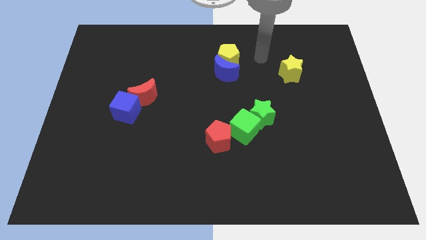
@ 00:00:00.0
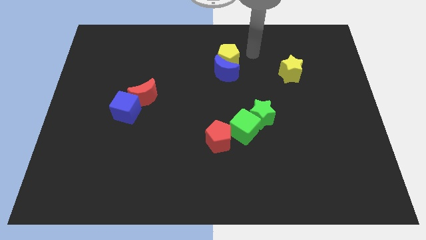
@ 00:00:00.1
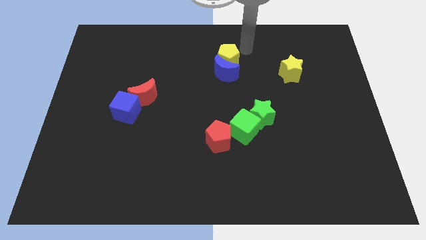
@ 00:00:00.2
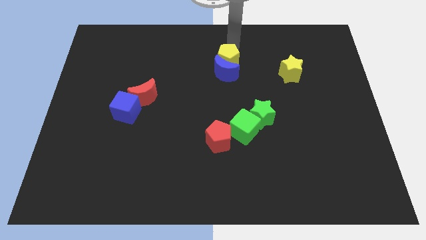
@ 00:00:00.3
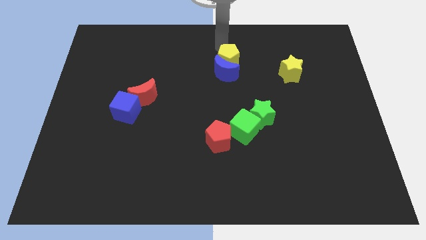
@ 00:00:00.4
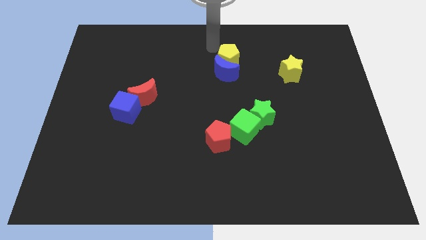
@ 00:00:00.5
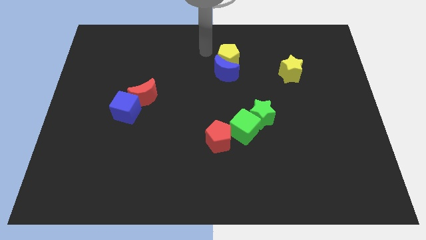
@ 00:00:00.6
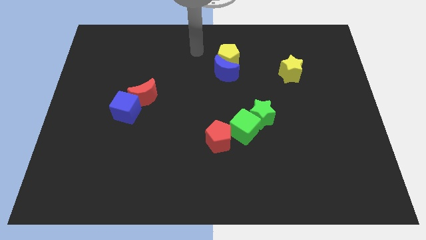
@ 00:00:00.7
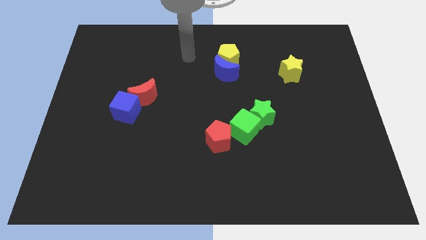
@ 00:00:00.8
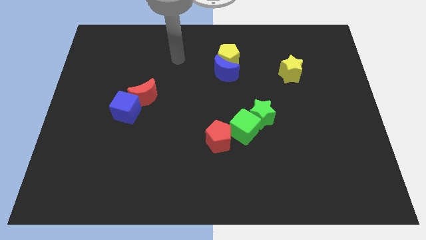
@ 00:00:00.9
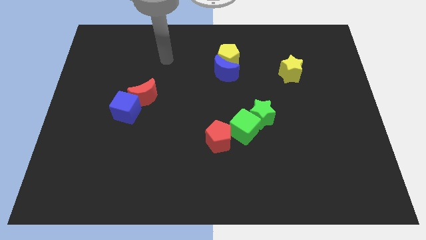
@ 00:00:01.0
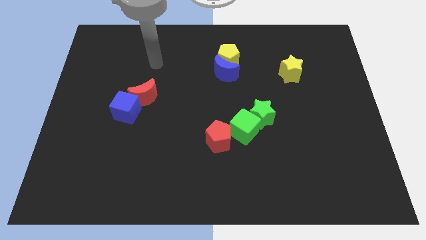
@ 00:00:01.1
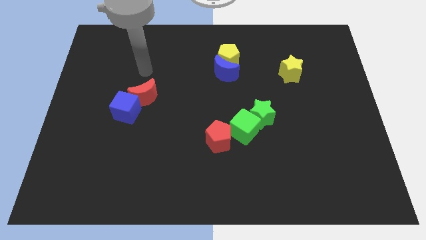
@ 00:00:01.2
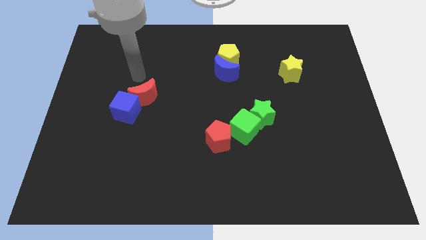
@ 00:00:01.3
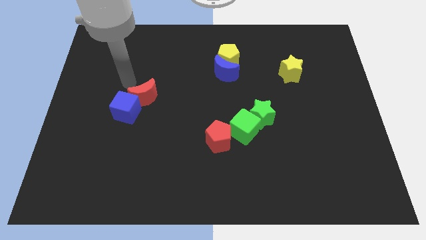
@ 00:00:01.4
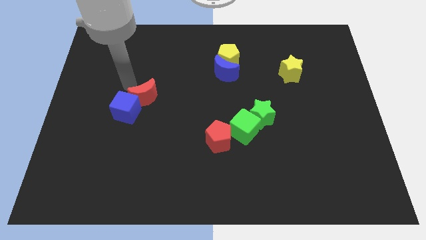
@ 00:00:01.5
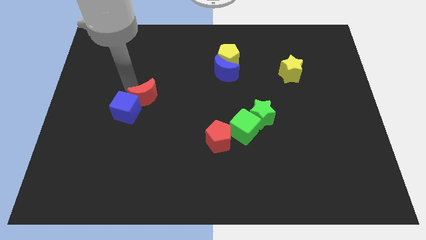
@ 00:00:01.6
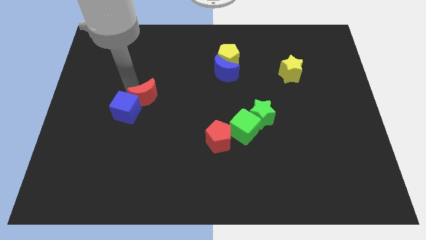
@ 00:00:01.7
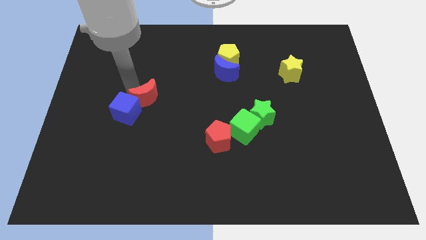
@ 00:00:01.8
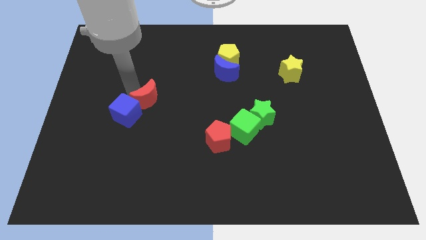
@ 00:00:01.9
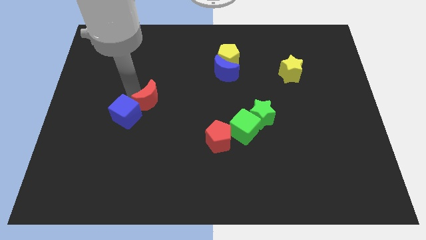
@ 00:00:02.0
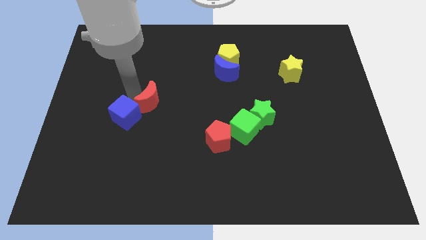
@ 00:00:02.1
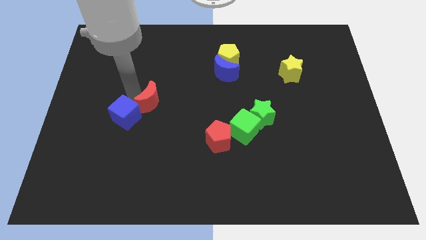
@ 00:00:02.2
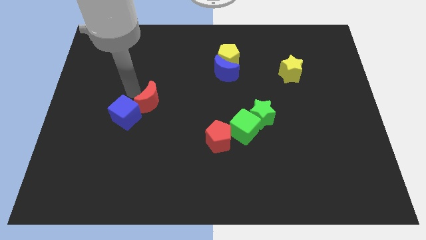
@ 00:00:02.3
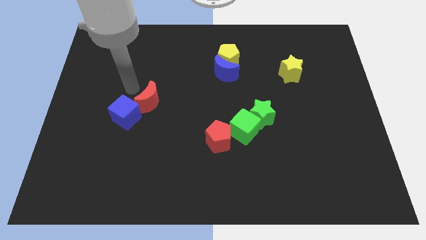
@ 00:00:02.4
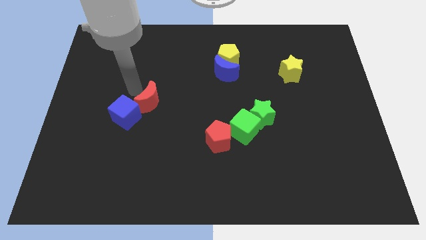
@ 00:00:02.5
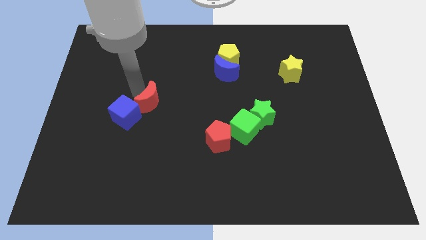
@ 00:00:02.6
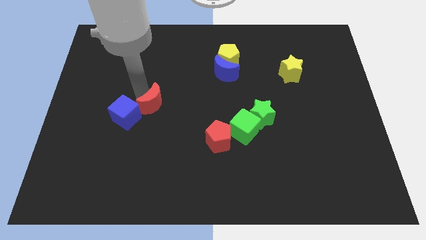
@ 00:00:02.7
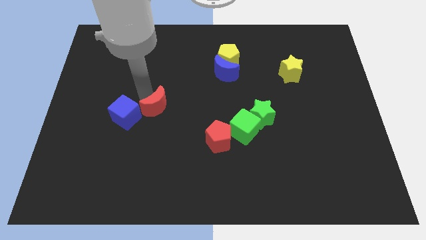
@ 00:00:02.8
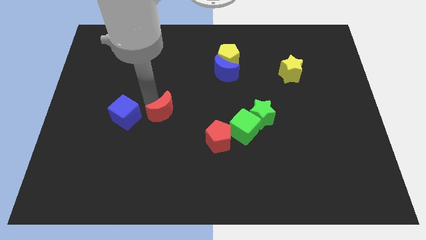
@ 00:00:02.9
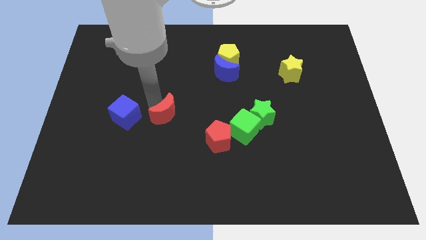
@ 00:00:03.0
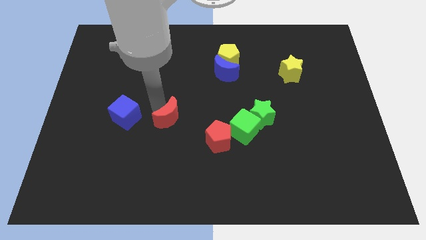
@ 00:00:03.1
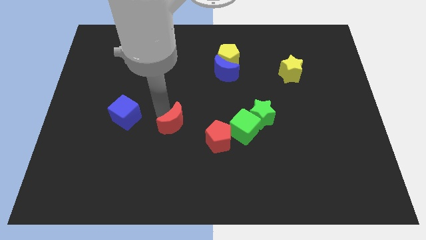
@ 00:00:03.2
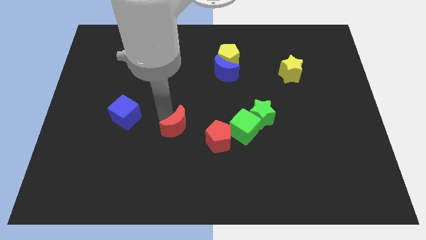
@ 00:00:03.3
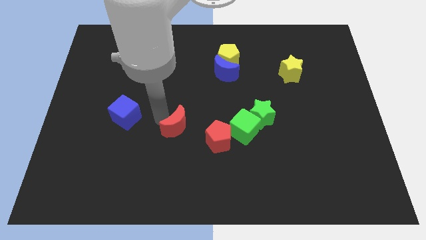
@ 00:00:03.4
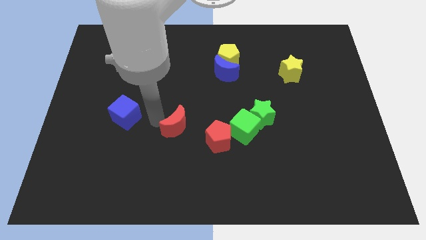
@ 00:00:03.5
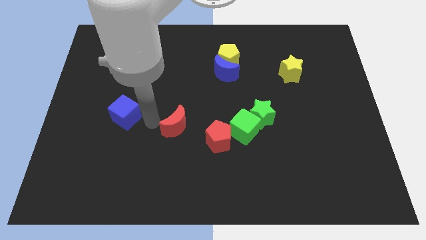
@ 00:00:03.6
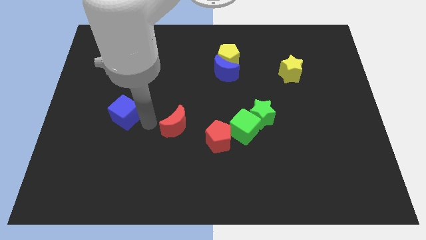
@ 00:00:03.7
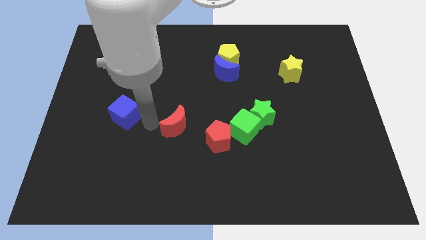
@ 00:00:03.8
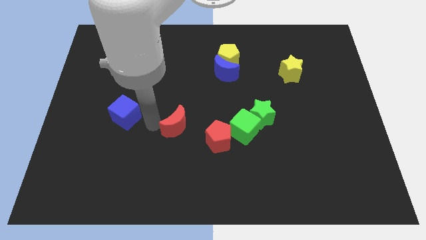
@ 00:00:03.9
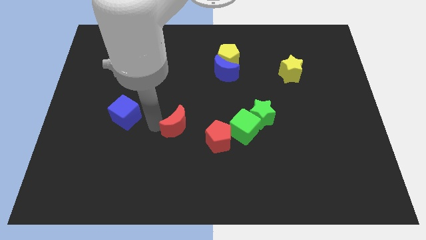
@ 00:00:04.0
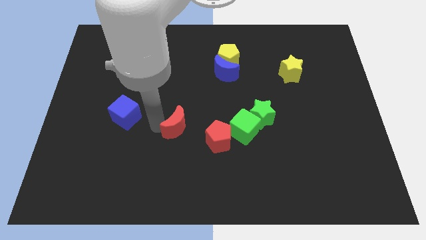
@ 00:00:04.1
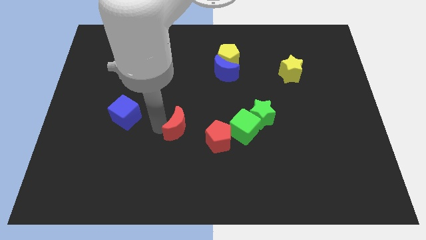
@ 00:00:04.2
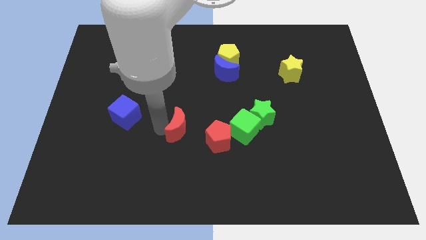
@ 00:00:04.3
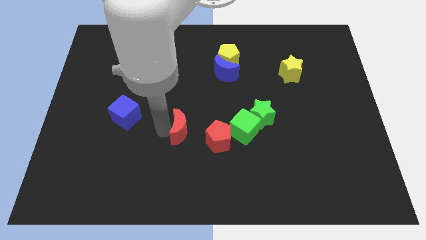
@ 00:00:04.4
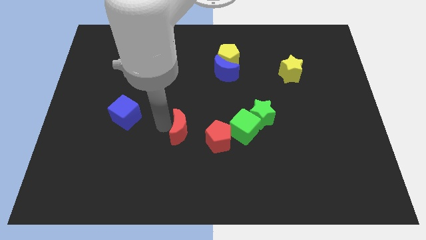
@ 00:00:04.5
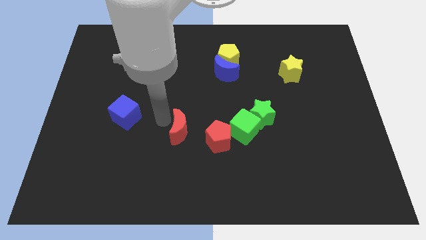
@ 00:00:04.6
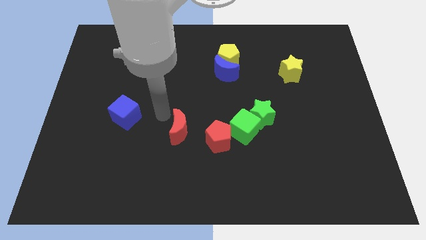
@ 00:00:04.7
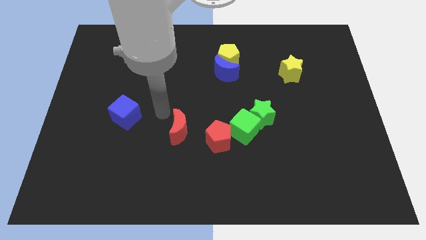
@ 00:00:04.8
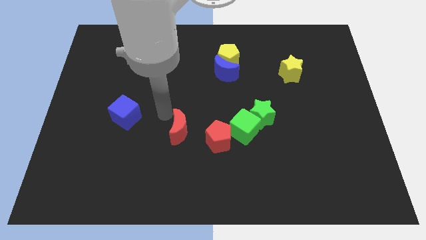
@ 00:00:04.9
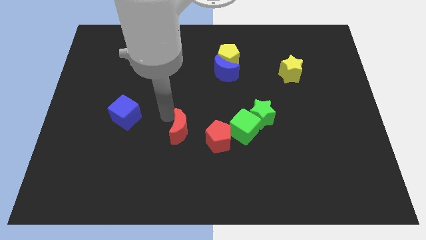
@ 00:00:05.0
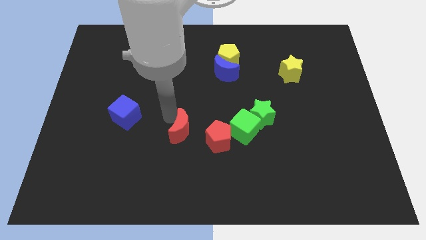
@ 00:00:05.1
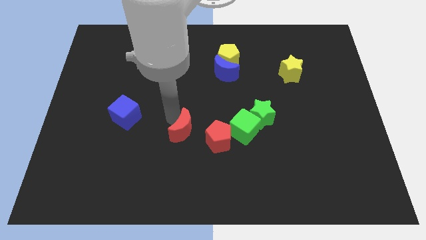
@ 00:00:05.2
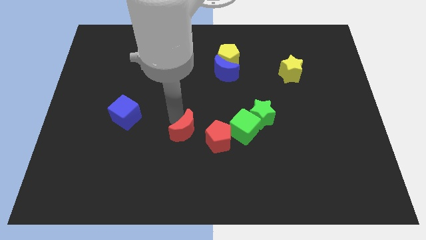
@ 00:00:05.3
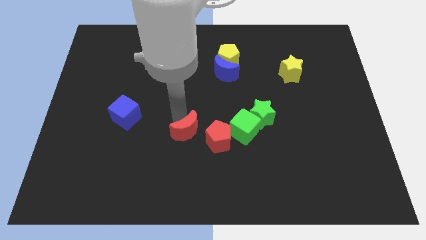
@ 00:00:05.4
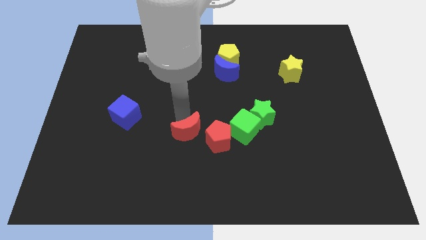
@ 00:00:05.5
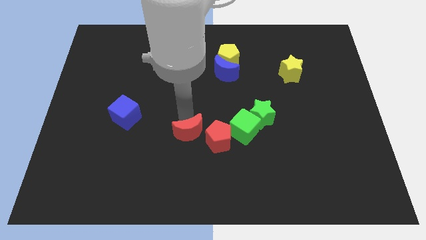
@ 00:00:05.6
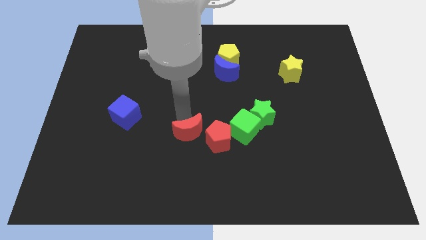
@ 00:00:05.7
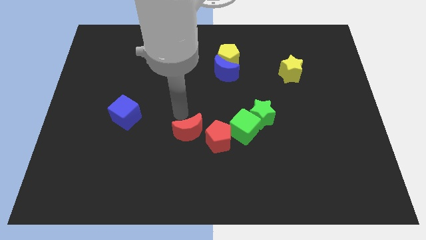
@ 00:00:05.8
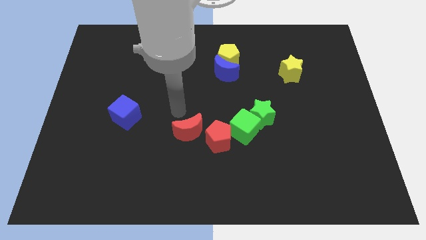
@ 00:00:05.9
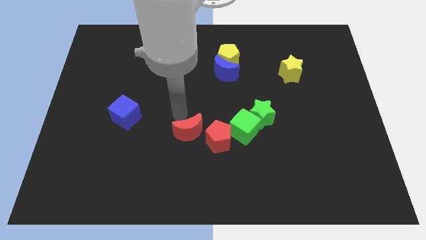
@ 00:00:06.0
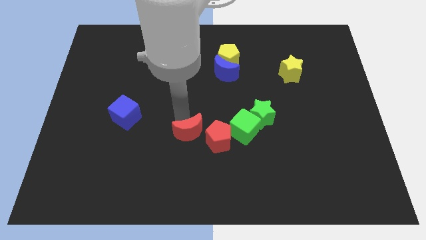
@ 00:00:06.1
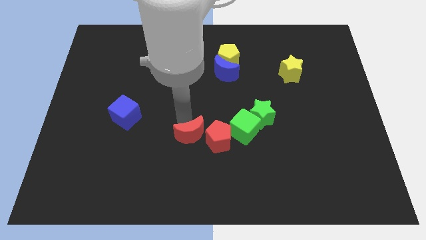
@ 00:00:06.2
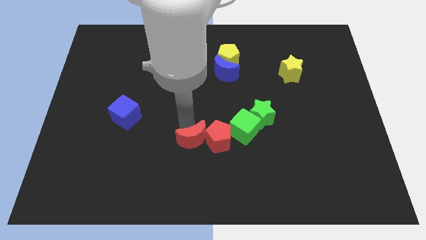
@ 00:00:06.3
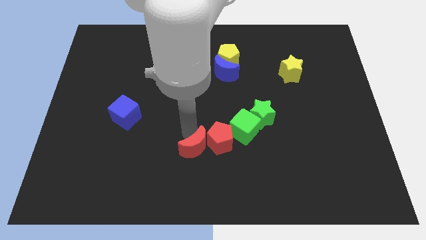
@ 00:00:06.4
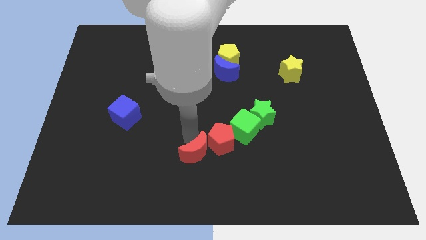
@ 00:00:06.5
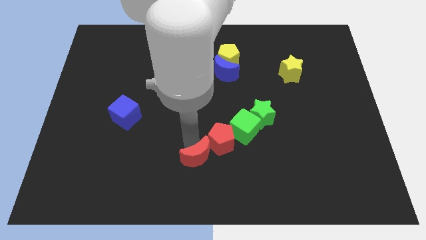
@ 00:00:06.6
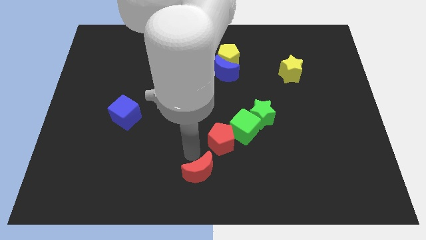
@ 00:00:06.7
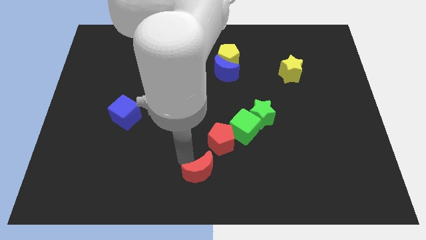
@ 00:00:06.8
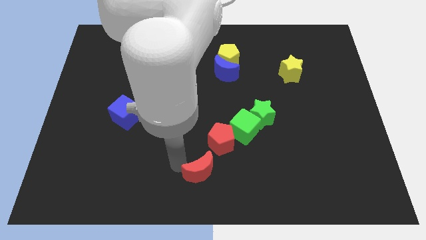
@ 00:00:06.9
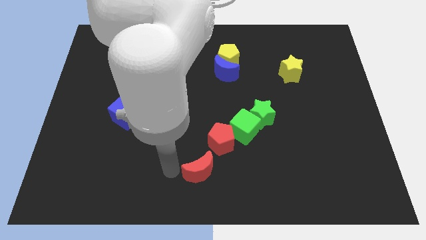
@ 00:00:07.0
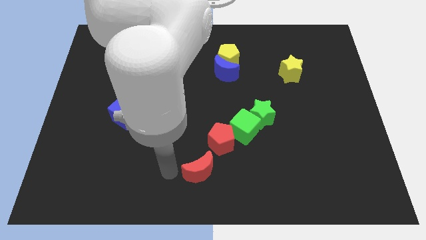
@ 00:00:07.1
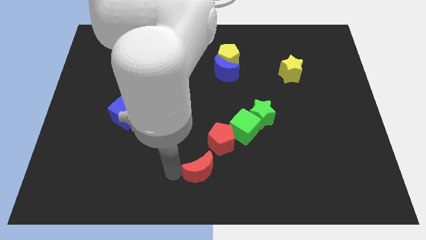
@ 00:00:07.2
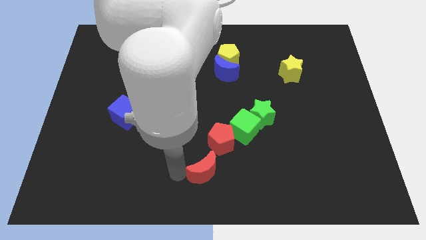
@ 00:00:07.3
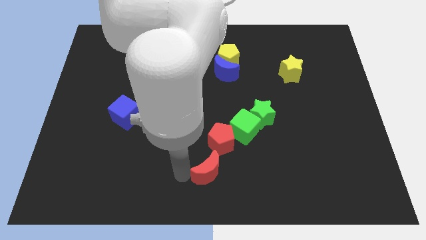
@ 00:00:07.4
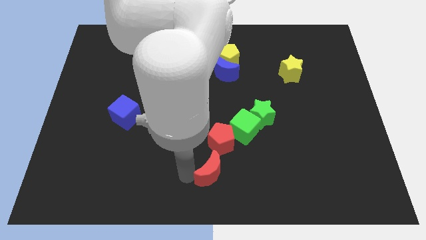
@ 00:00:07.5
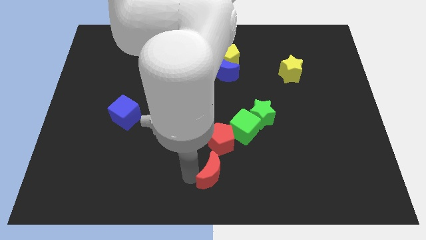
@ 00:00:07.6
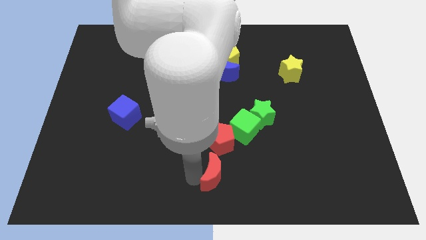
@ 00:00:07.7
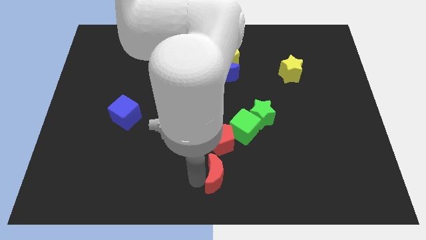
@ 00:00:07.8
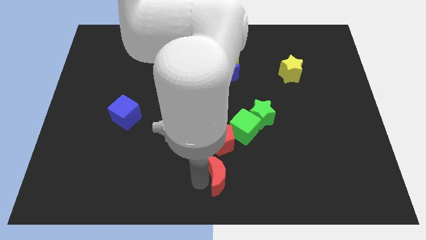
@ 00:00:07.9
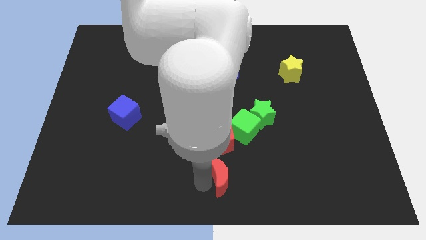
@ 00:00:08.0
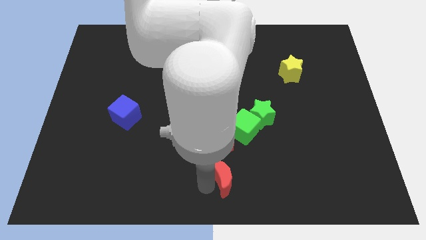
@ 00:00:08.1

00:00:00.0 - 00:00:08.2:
move the red moon below the green cube
